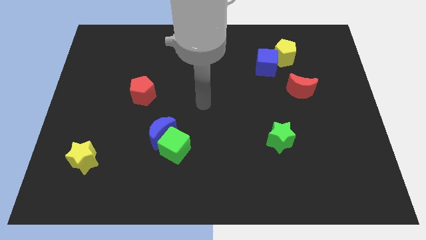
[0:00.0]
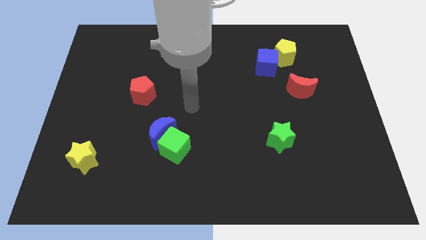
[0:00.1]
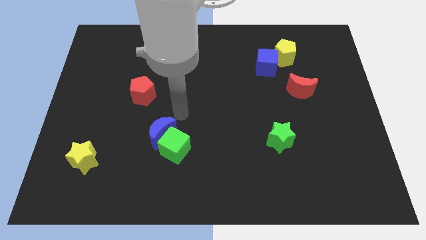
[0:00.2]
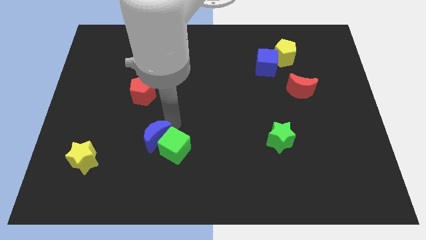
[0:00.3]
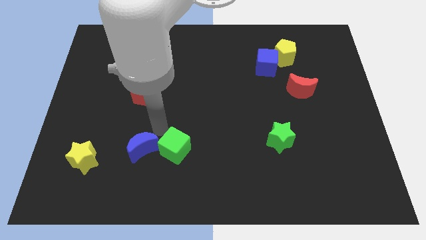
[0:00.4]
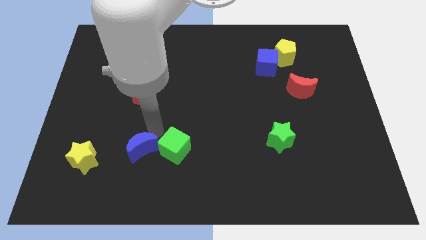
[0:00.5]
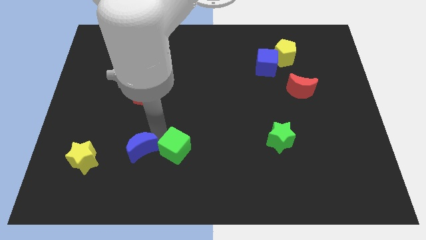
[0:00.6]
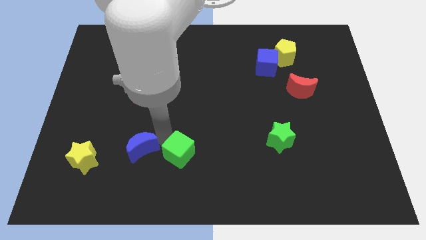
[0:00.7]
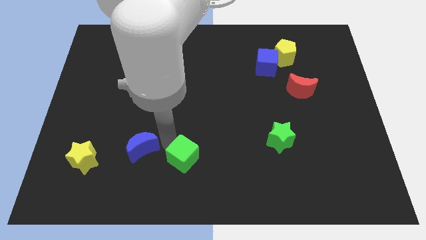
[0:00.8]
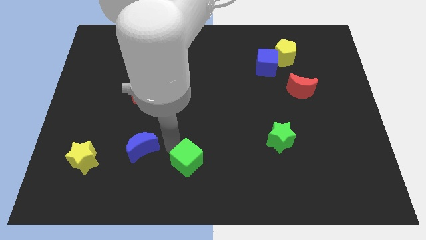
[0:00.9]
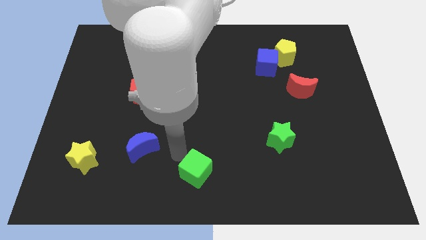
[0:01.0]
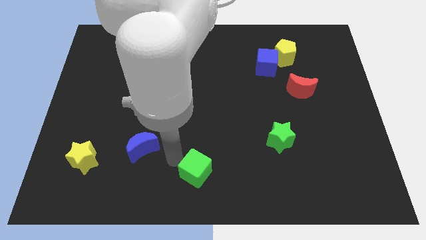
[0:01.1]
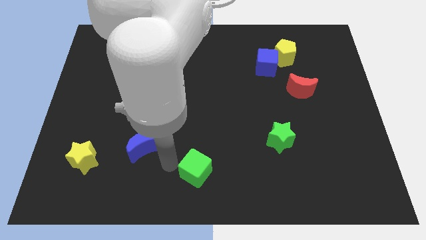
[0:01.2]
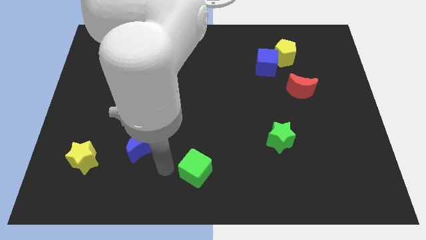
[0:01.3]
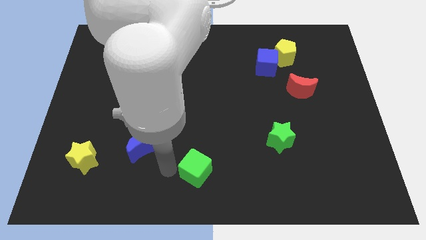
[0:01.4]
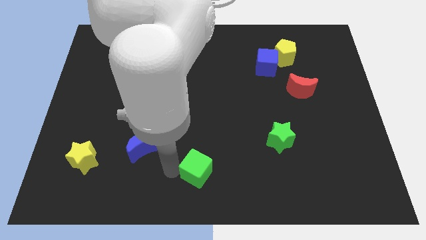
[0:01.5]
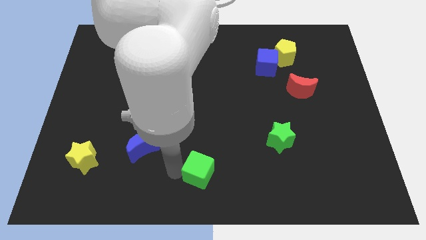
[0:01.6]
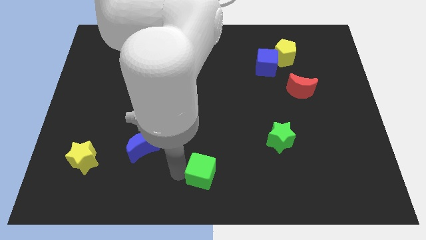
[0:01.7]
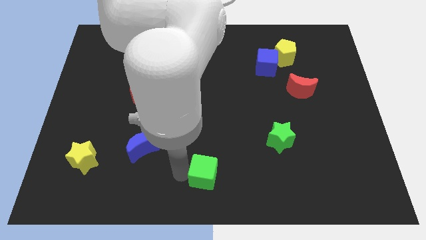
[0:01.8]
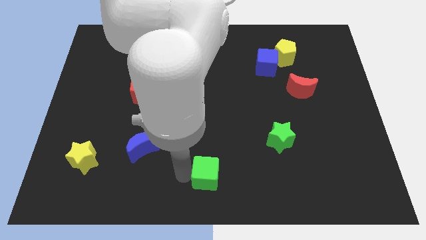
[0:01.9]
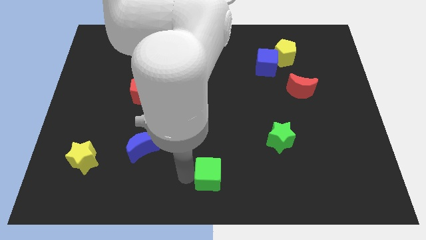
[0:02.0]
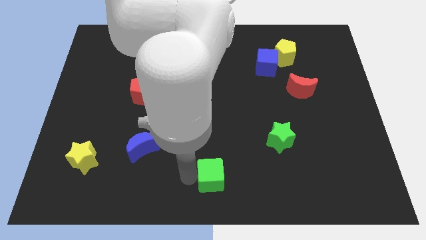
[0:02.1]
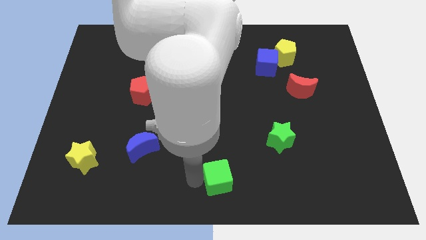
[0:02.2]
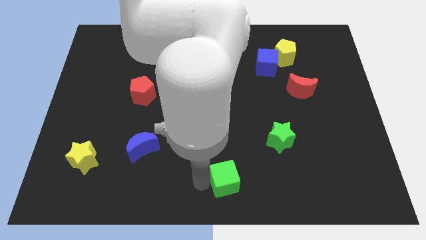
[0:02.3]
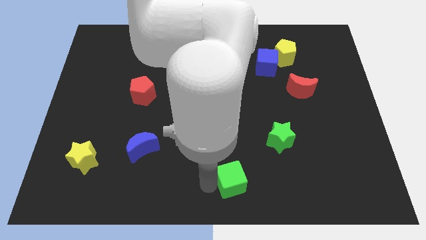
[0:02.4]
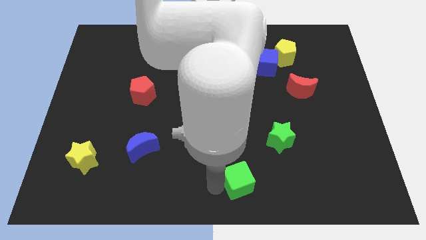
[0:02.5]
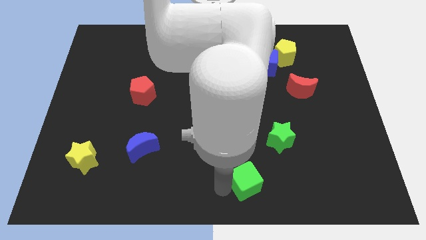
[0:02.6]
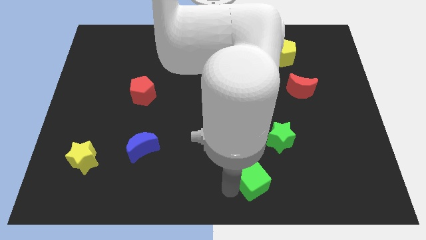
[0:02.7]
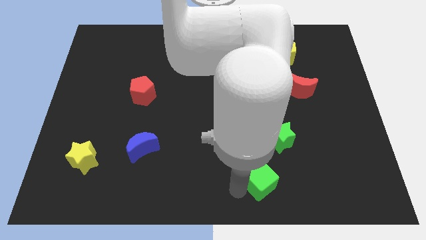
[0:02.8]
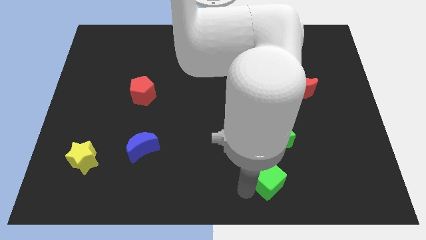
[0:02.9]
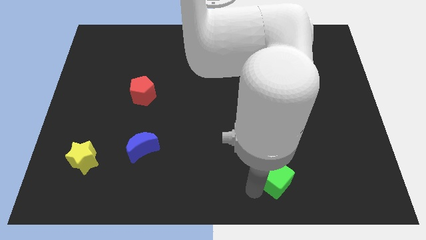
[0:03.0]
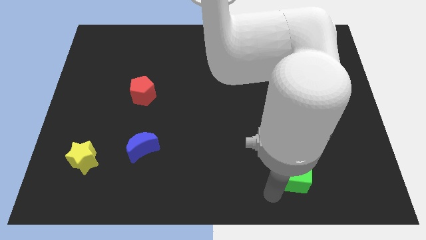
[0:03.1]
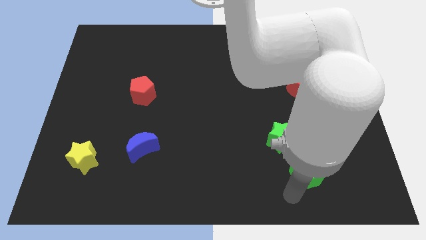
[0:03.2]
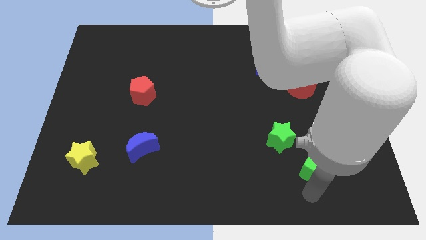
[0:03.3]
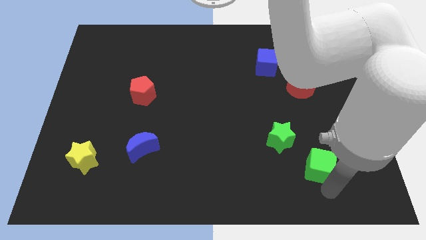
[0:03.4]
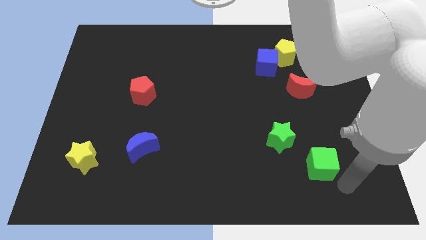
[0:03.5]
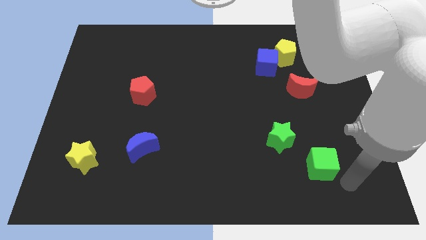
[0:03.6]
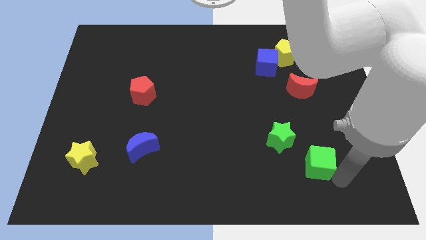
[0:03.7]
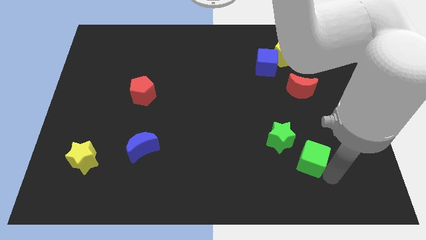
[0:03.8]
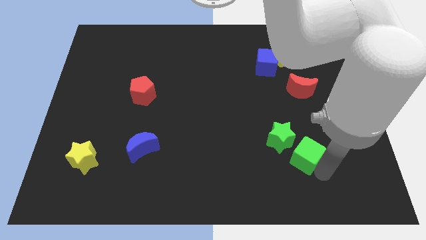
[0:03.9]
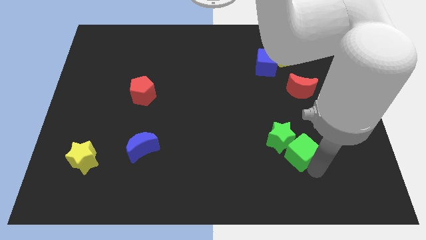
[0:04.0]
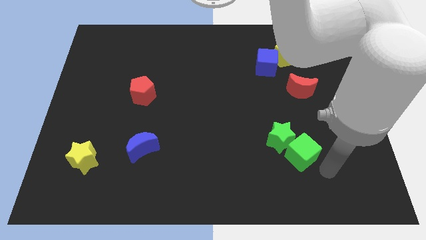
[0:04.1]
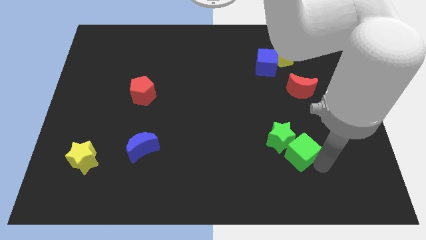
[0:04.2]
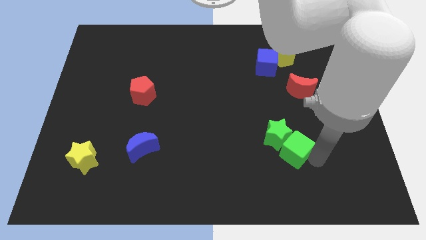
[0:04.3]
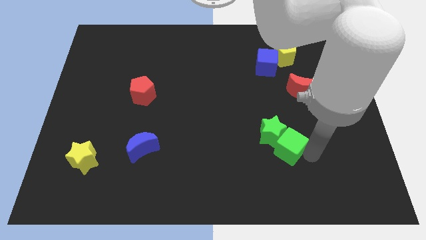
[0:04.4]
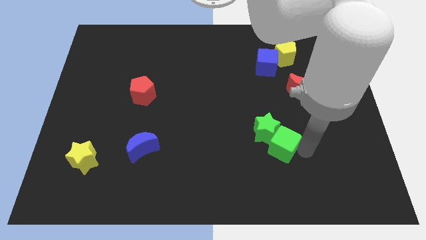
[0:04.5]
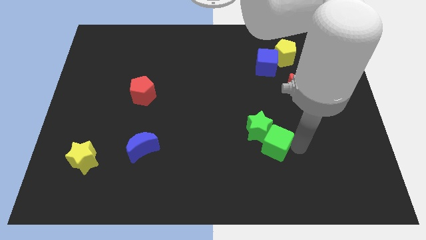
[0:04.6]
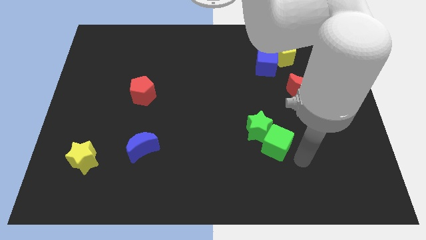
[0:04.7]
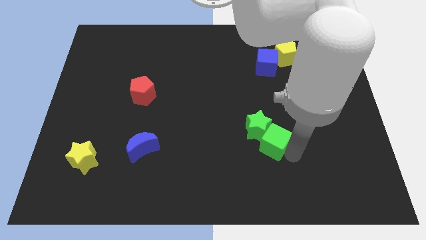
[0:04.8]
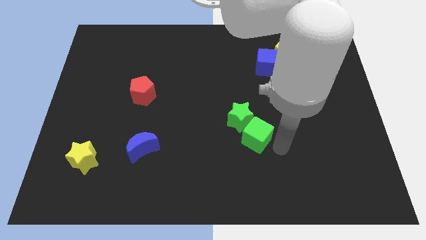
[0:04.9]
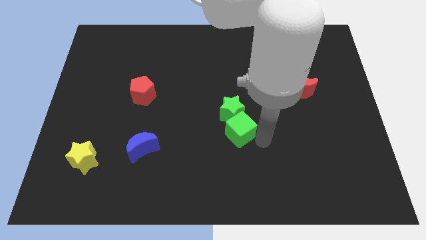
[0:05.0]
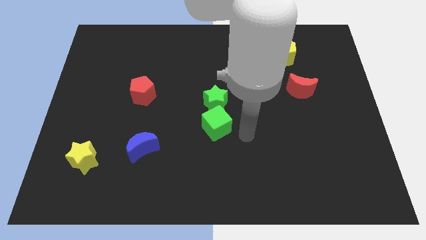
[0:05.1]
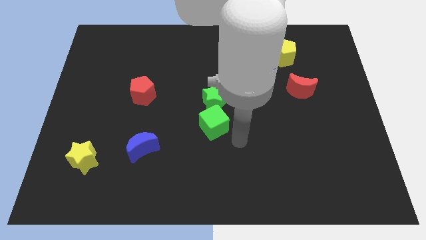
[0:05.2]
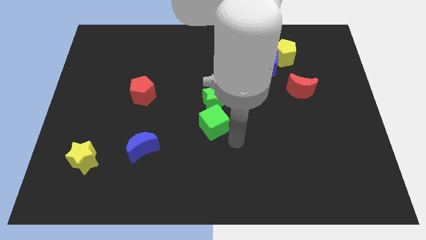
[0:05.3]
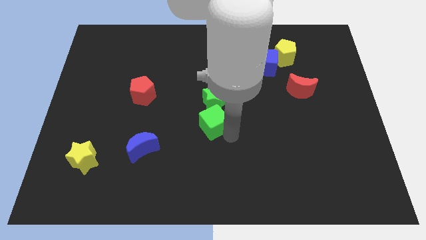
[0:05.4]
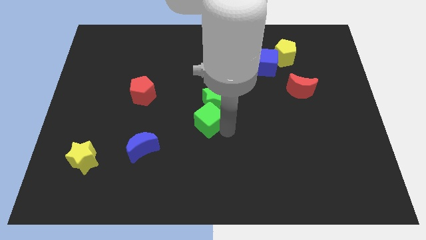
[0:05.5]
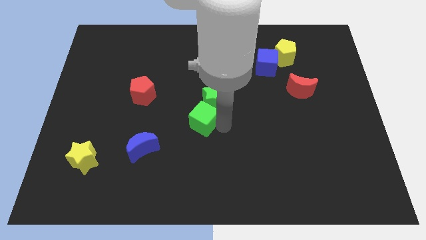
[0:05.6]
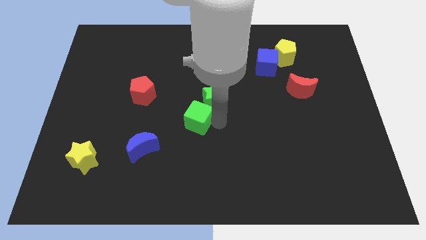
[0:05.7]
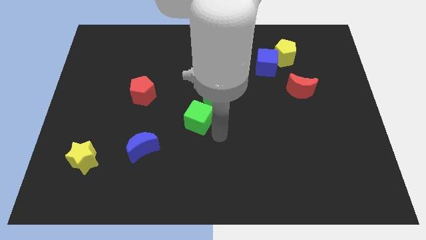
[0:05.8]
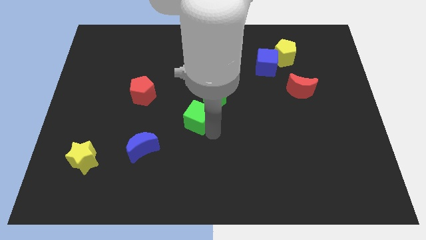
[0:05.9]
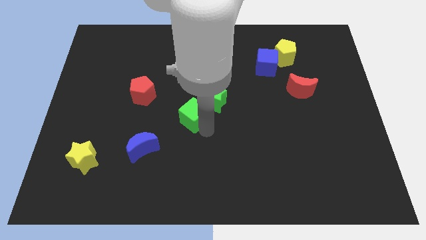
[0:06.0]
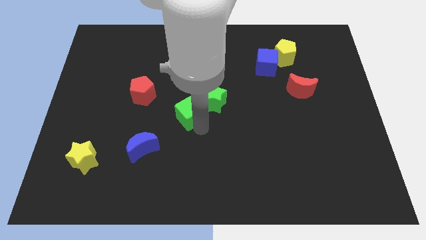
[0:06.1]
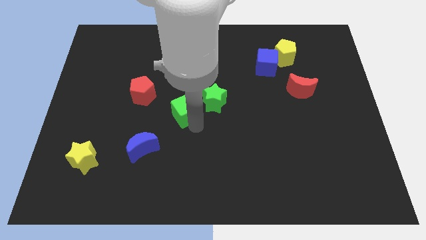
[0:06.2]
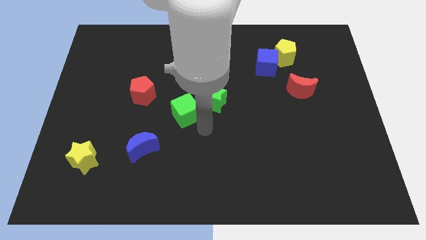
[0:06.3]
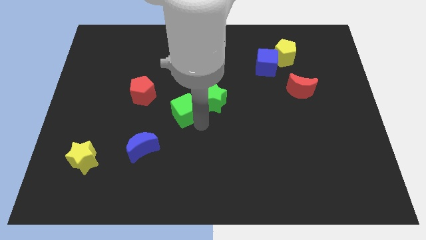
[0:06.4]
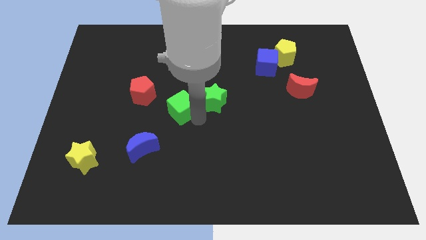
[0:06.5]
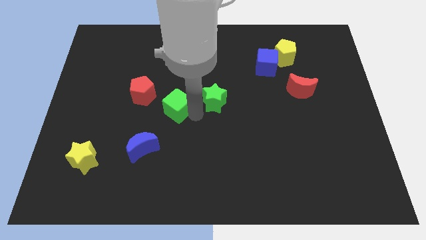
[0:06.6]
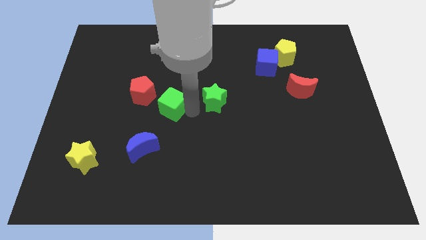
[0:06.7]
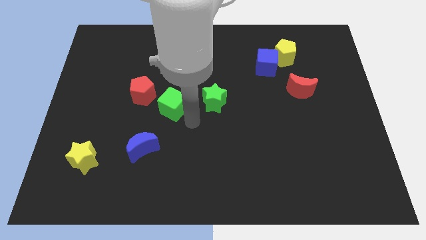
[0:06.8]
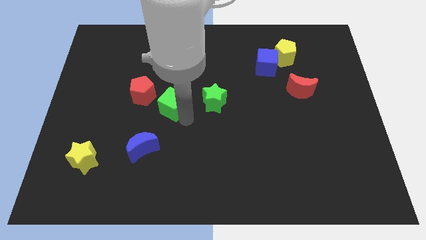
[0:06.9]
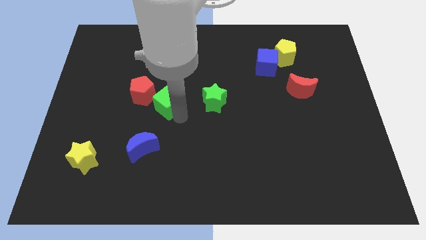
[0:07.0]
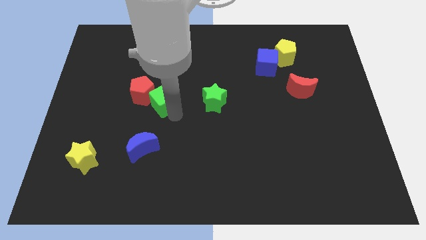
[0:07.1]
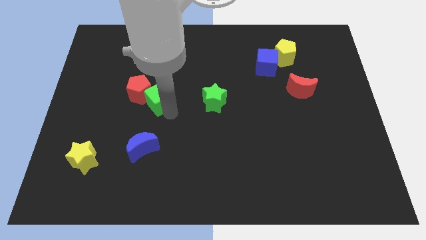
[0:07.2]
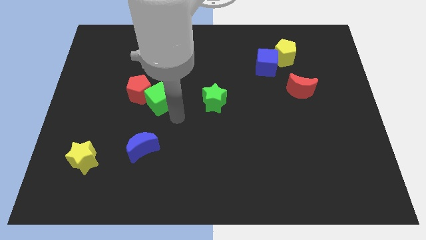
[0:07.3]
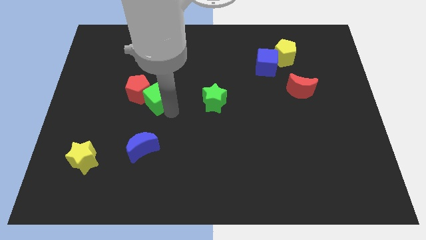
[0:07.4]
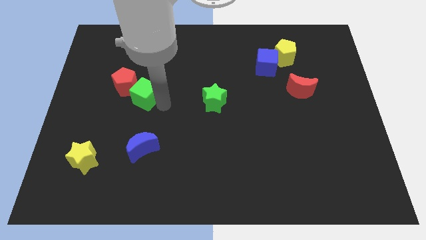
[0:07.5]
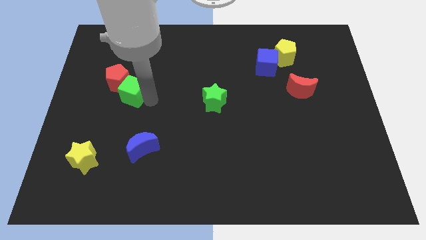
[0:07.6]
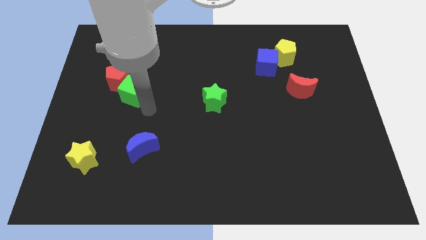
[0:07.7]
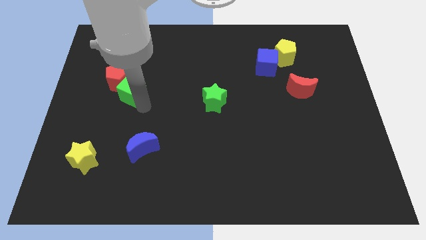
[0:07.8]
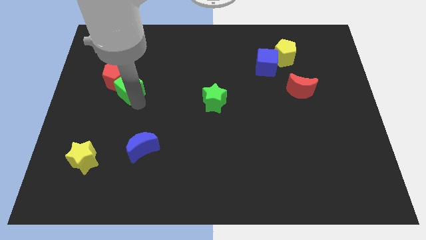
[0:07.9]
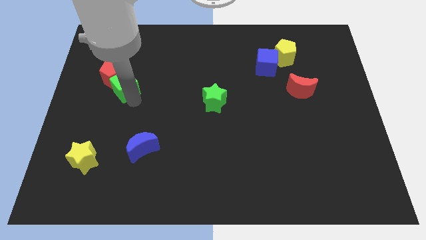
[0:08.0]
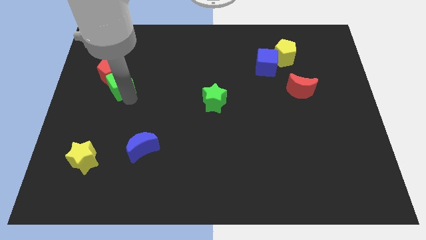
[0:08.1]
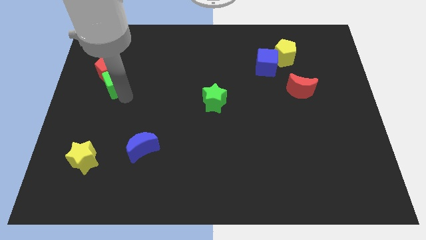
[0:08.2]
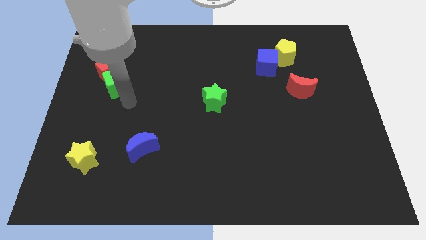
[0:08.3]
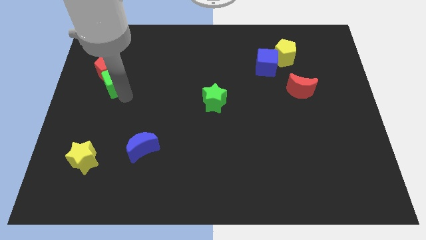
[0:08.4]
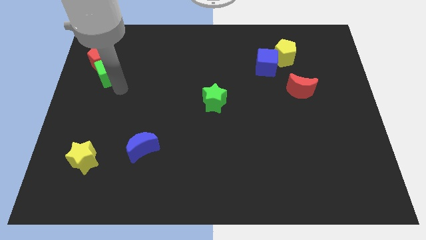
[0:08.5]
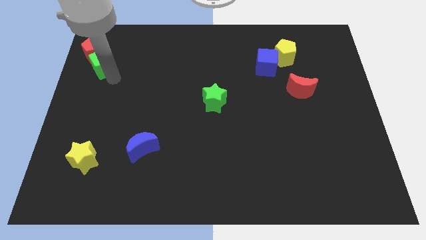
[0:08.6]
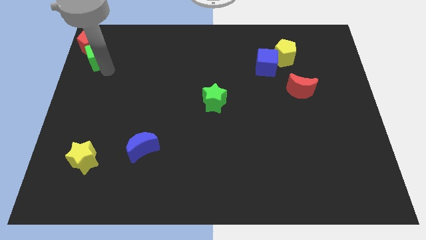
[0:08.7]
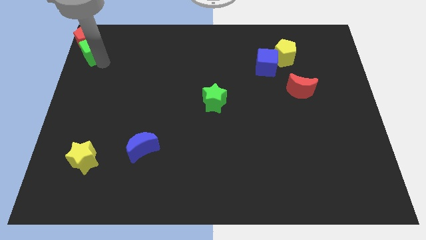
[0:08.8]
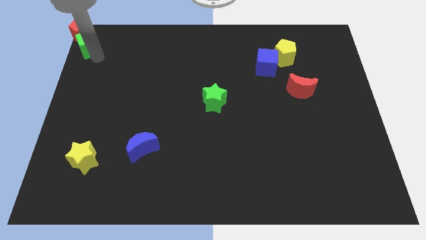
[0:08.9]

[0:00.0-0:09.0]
put the green cube to the upper left corner
